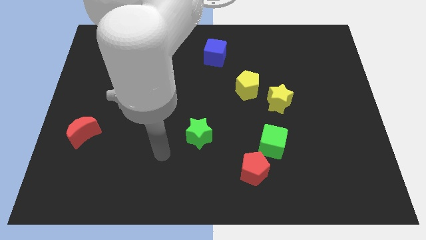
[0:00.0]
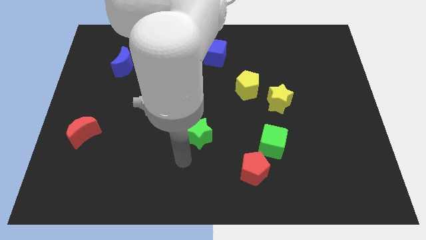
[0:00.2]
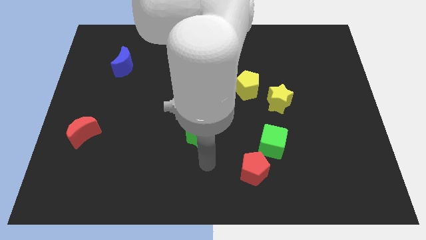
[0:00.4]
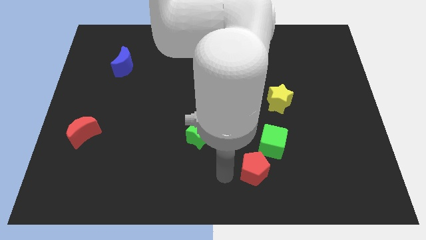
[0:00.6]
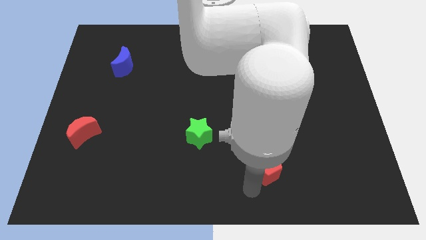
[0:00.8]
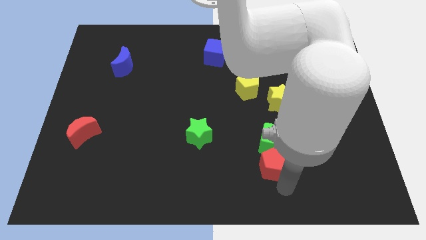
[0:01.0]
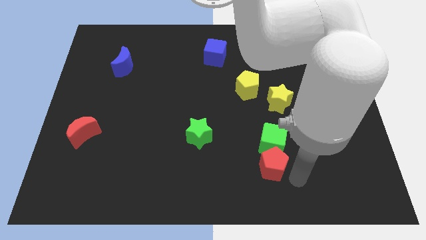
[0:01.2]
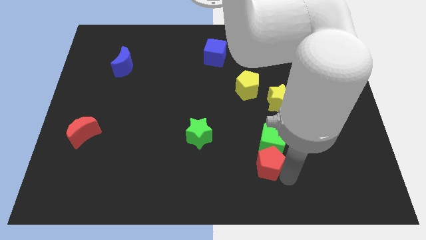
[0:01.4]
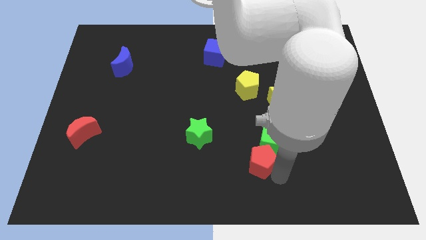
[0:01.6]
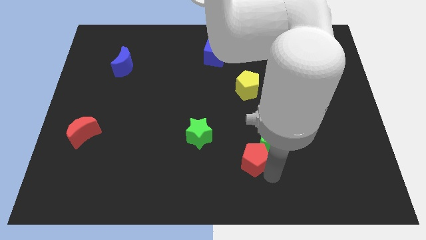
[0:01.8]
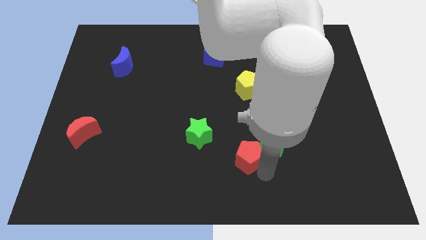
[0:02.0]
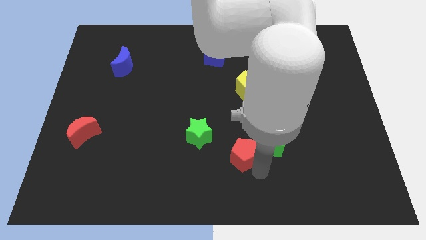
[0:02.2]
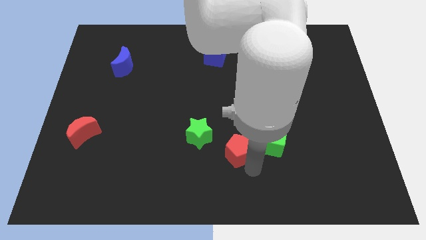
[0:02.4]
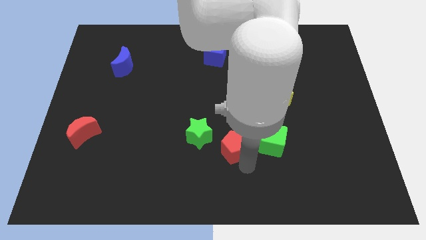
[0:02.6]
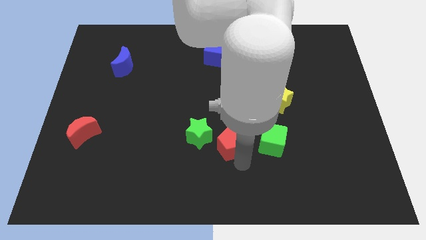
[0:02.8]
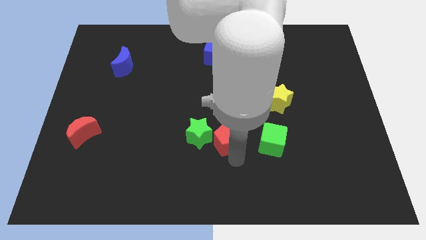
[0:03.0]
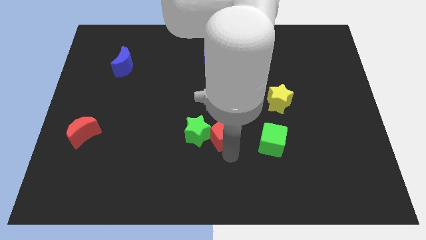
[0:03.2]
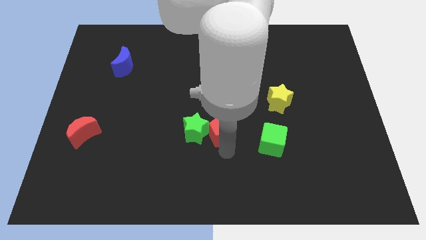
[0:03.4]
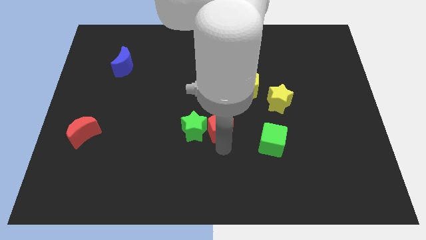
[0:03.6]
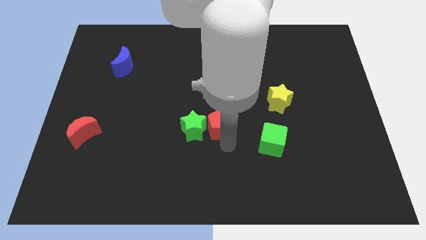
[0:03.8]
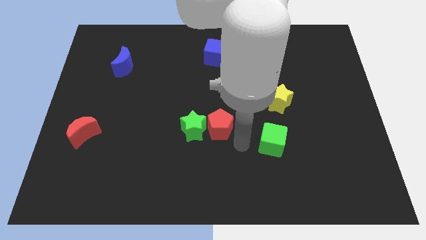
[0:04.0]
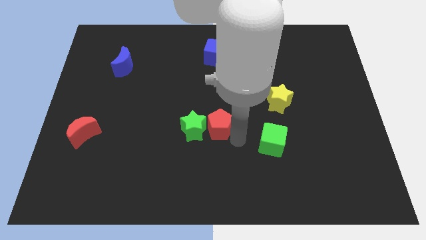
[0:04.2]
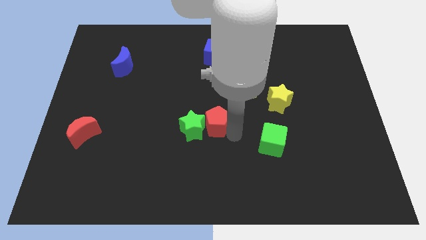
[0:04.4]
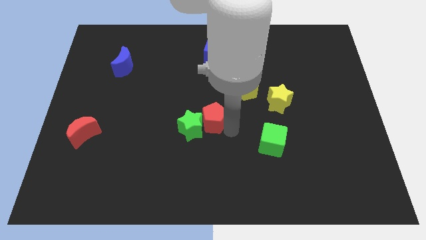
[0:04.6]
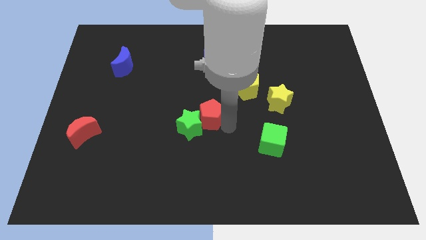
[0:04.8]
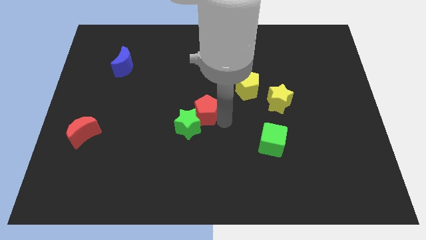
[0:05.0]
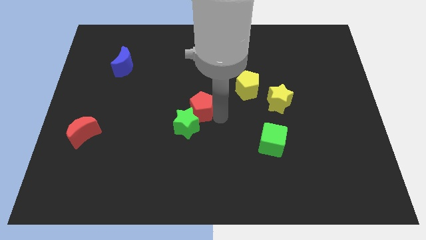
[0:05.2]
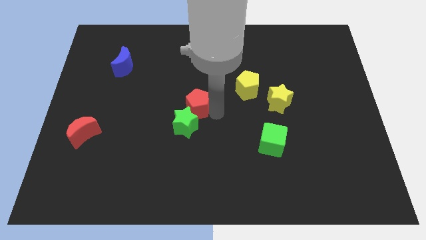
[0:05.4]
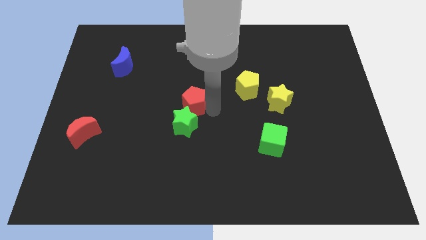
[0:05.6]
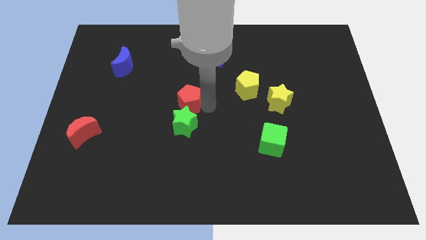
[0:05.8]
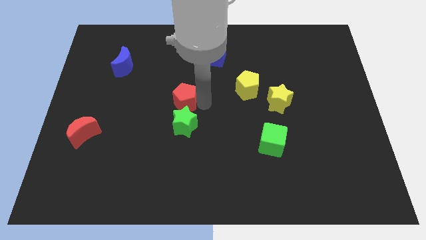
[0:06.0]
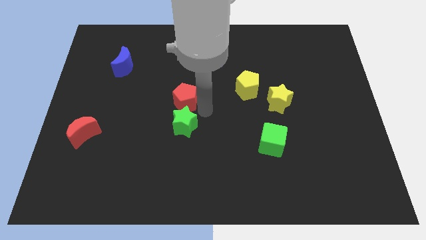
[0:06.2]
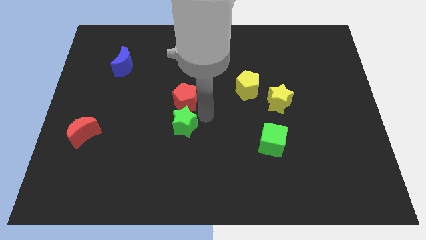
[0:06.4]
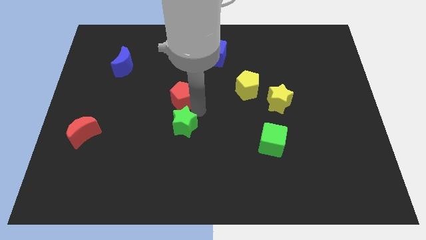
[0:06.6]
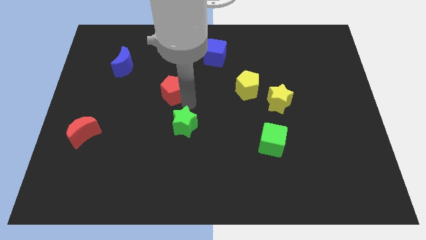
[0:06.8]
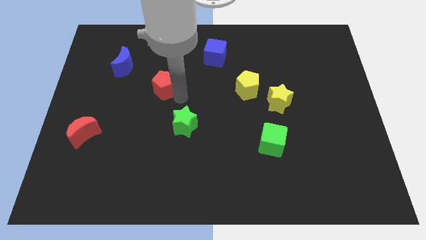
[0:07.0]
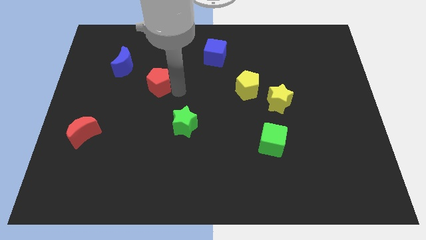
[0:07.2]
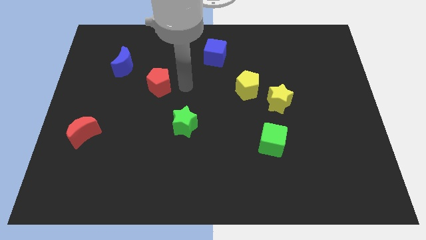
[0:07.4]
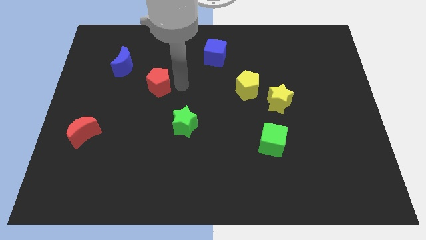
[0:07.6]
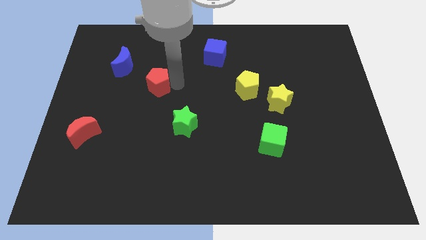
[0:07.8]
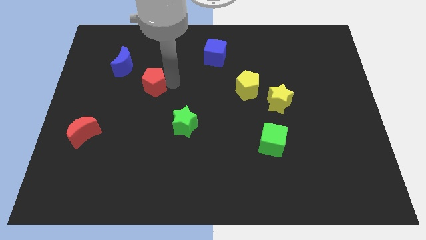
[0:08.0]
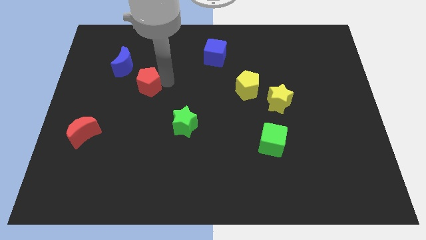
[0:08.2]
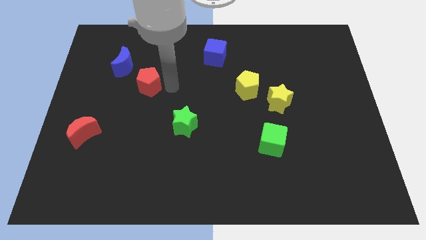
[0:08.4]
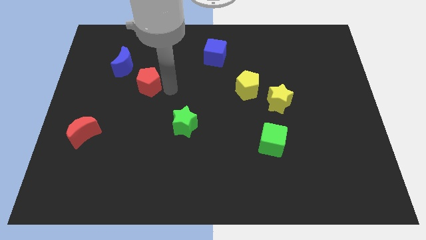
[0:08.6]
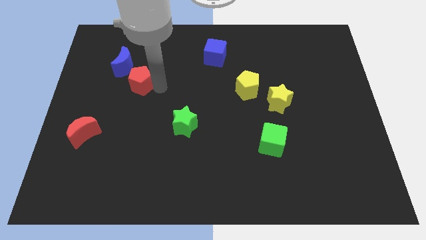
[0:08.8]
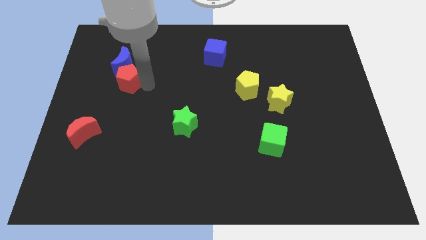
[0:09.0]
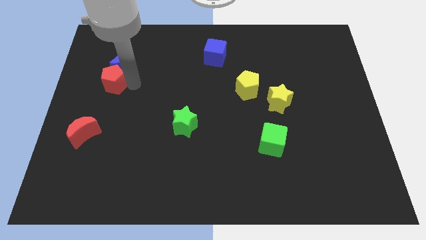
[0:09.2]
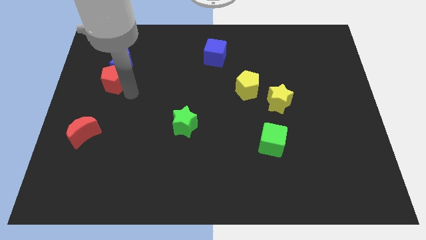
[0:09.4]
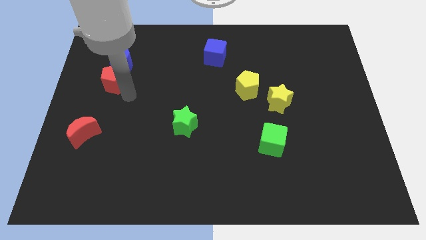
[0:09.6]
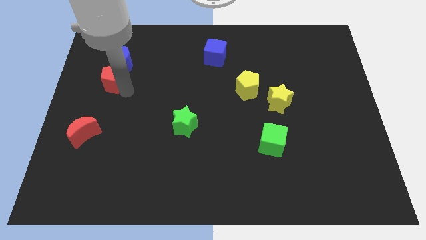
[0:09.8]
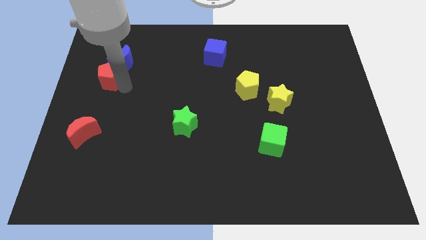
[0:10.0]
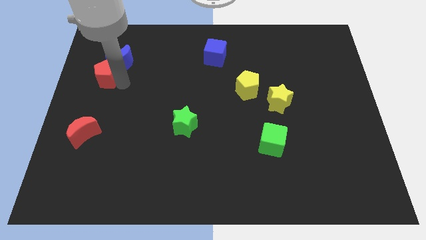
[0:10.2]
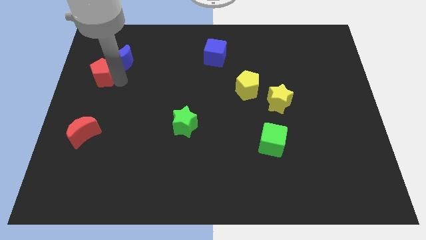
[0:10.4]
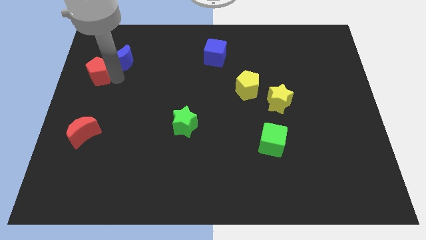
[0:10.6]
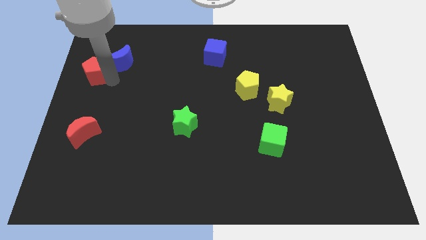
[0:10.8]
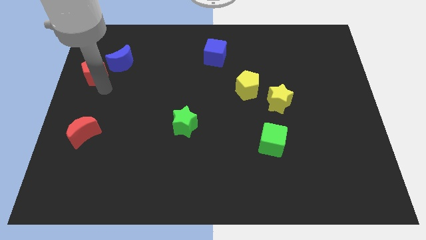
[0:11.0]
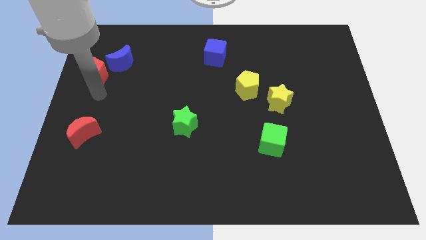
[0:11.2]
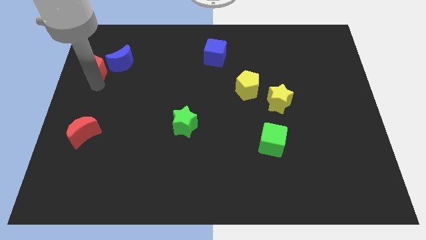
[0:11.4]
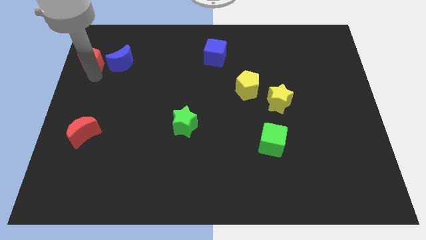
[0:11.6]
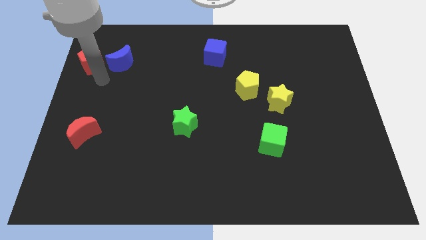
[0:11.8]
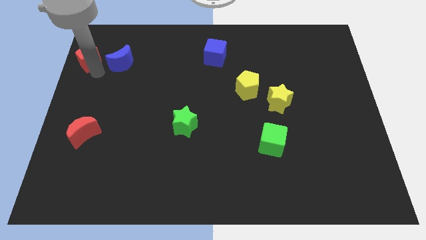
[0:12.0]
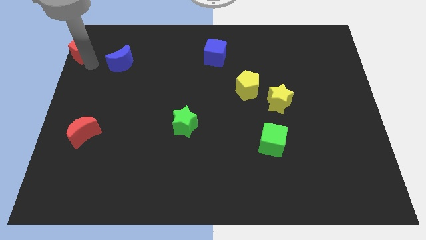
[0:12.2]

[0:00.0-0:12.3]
slide the red pentagon to the upper left corner
